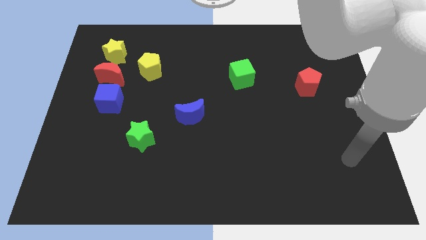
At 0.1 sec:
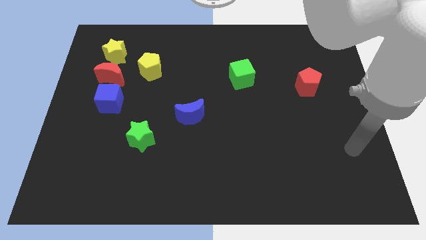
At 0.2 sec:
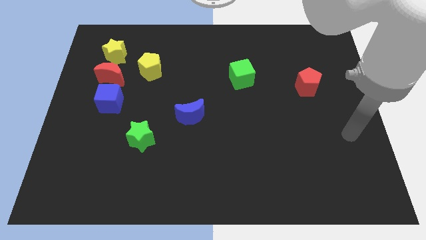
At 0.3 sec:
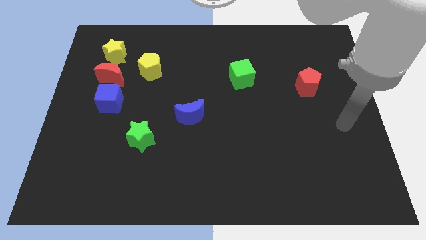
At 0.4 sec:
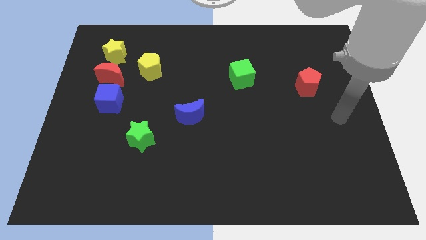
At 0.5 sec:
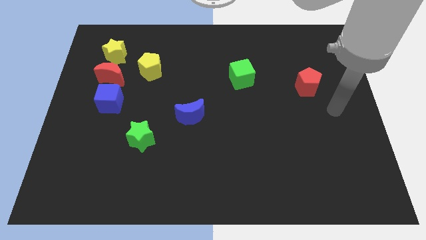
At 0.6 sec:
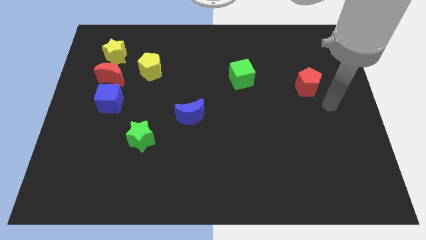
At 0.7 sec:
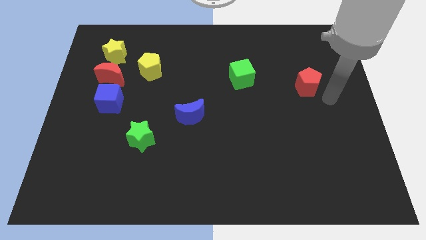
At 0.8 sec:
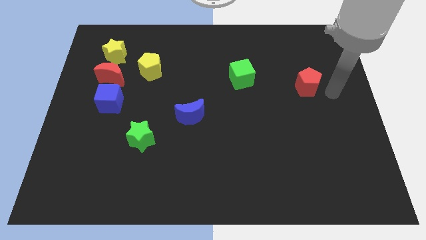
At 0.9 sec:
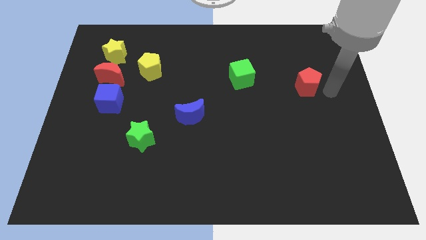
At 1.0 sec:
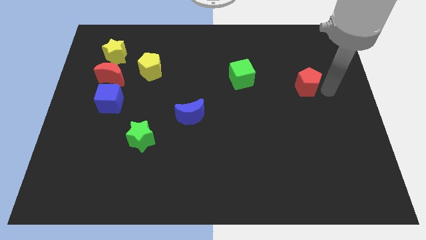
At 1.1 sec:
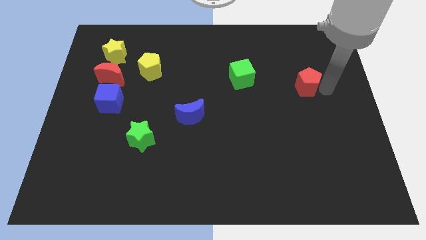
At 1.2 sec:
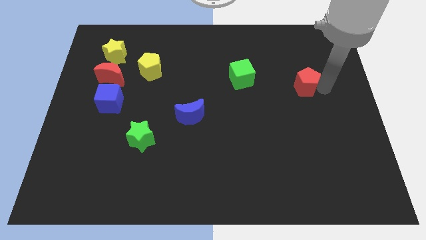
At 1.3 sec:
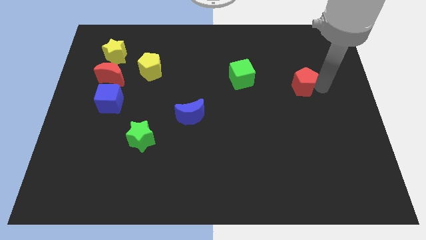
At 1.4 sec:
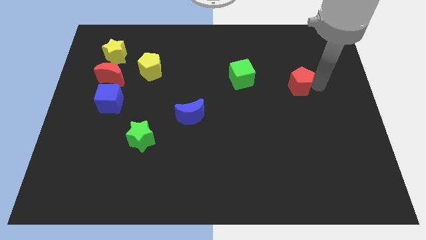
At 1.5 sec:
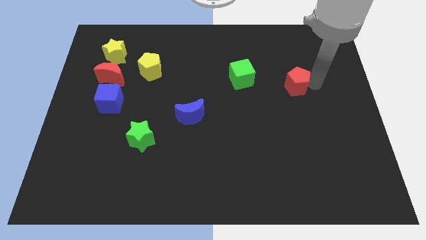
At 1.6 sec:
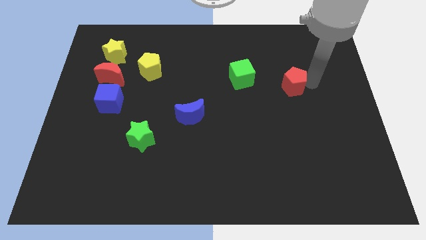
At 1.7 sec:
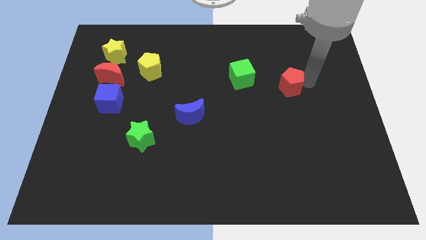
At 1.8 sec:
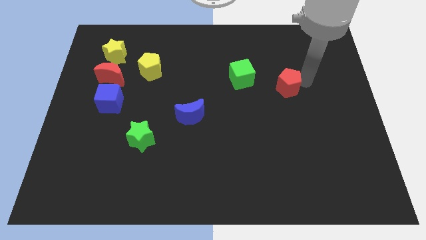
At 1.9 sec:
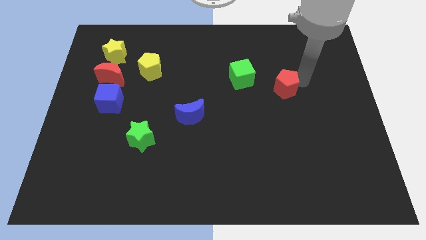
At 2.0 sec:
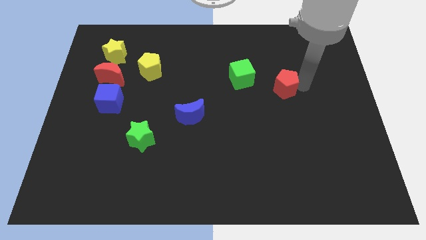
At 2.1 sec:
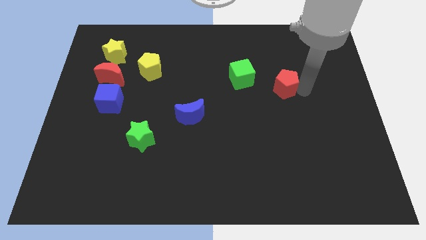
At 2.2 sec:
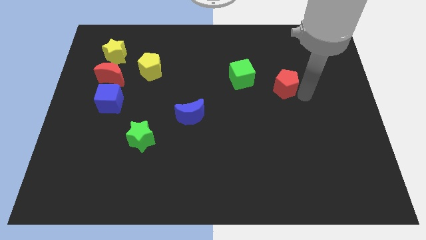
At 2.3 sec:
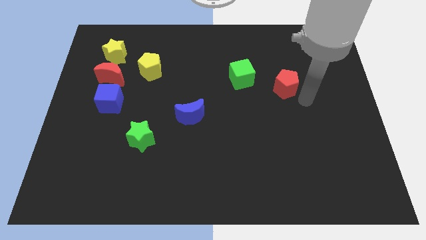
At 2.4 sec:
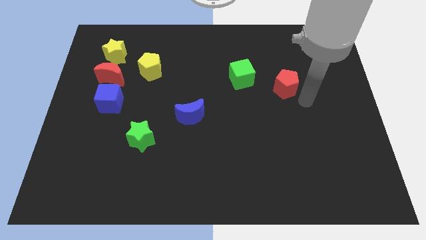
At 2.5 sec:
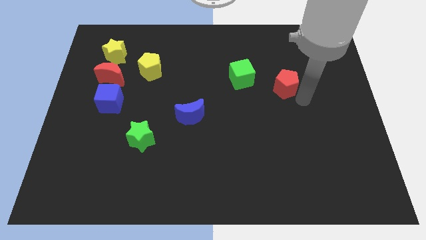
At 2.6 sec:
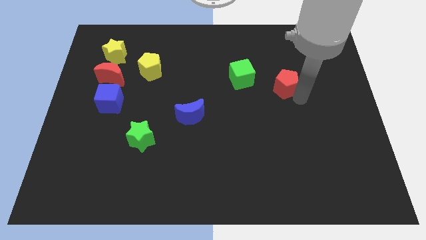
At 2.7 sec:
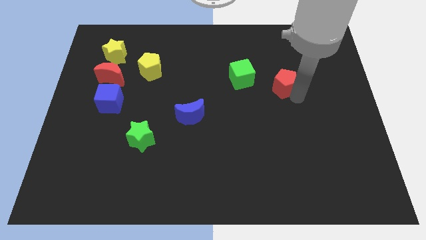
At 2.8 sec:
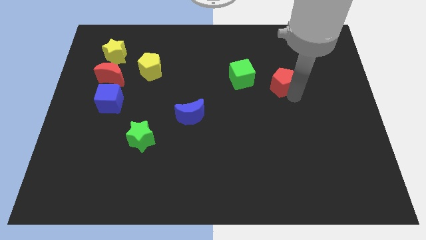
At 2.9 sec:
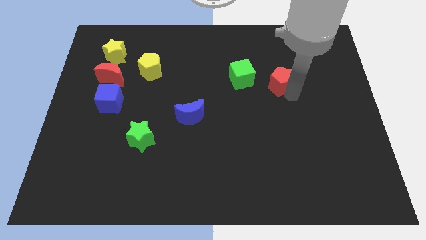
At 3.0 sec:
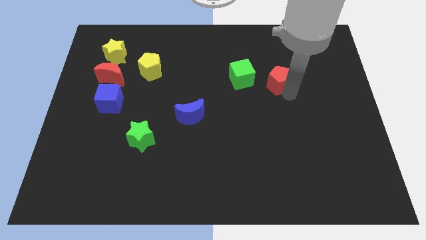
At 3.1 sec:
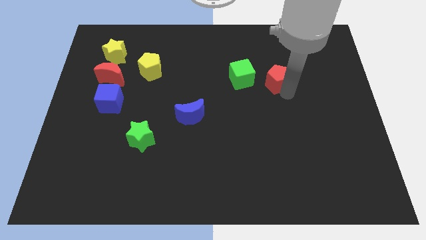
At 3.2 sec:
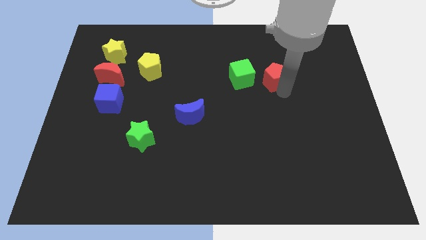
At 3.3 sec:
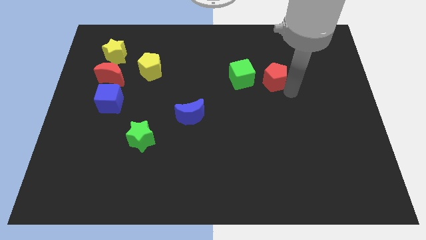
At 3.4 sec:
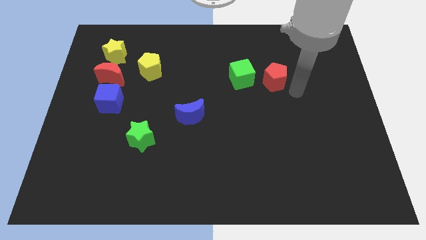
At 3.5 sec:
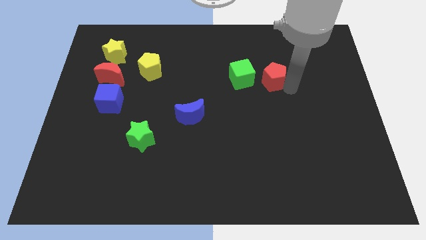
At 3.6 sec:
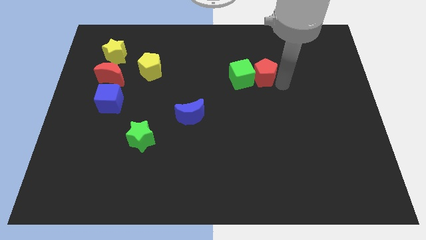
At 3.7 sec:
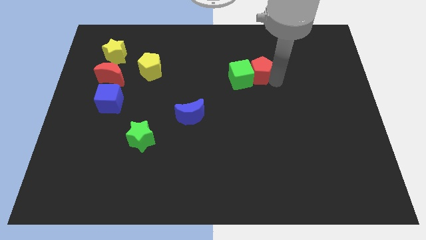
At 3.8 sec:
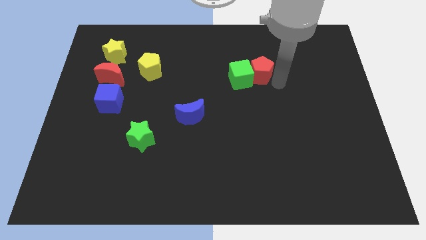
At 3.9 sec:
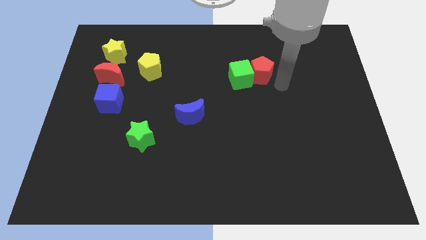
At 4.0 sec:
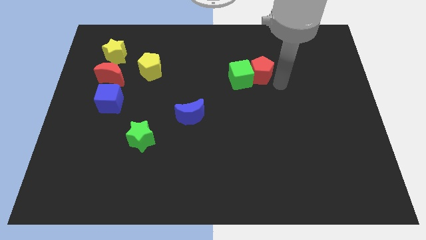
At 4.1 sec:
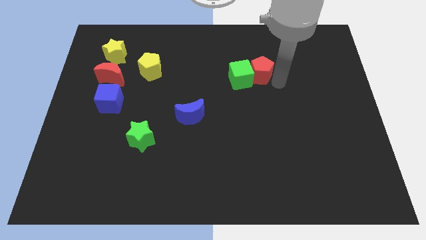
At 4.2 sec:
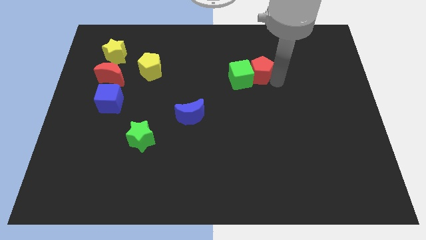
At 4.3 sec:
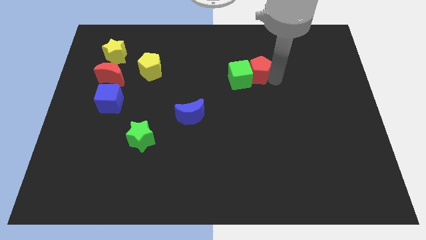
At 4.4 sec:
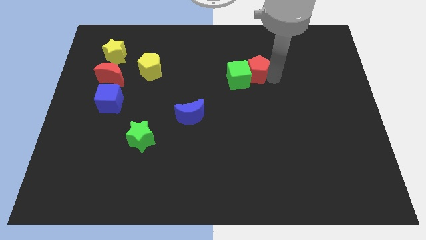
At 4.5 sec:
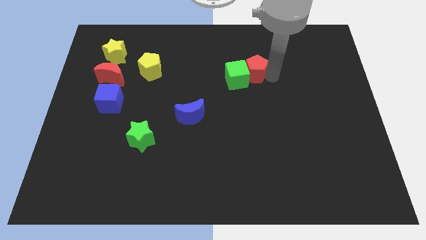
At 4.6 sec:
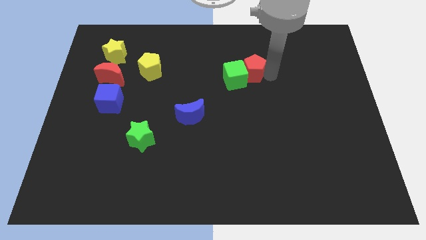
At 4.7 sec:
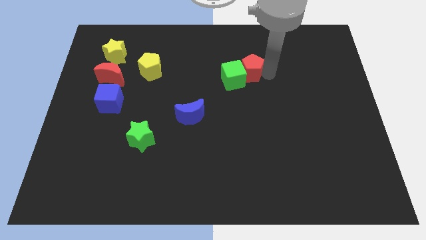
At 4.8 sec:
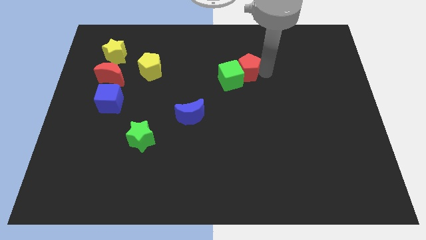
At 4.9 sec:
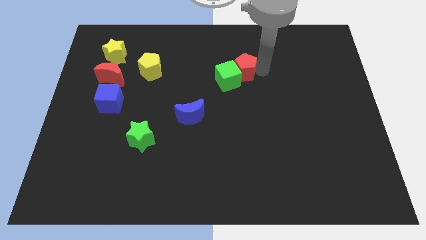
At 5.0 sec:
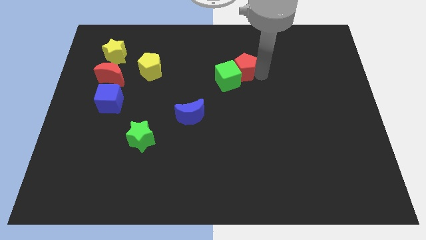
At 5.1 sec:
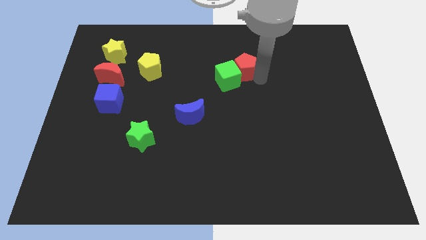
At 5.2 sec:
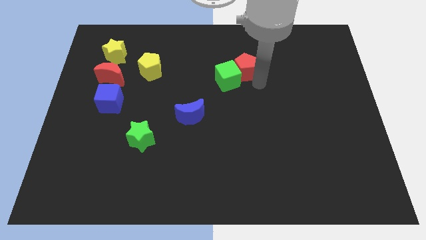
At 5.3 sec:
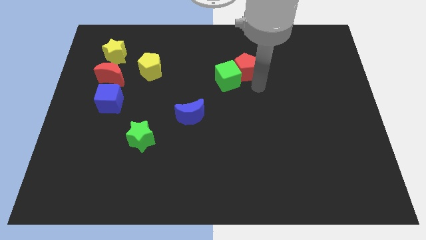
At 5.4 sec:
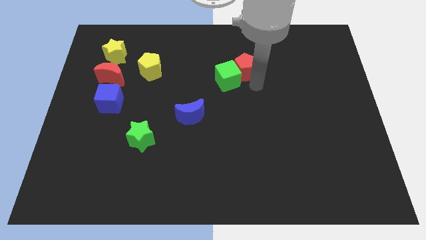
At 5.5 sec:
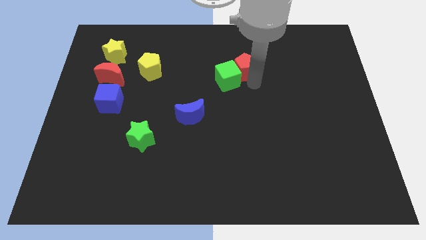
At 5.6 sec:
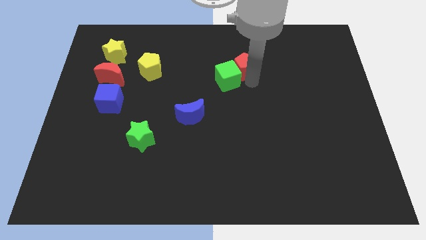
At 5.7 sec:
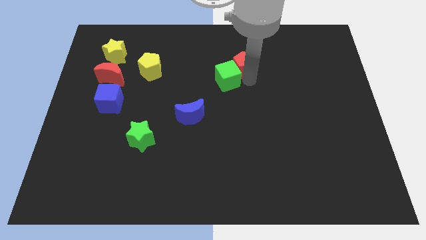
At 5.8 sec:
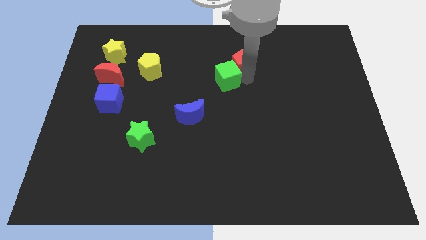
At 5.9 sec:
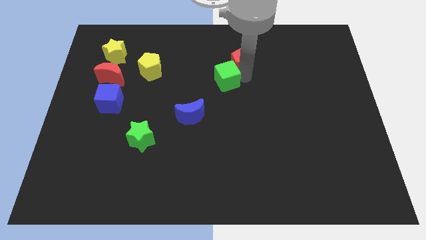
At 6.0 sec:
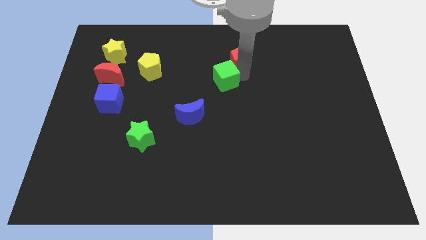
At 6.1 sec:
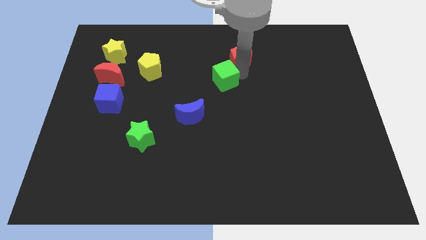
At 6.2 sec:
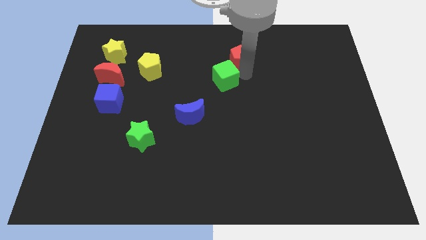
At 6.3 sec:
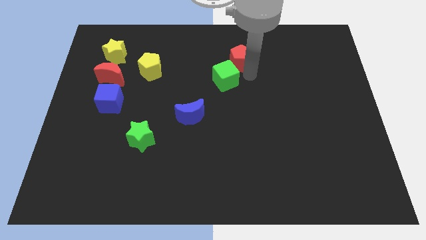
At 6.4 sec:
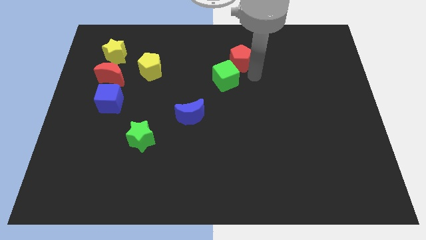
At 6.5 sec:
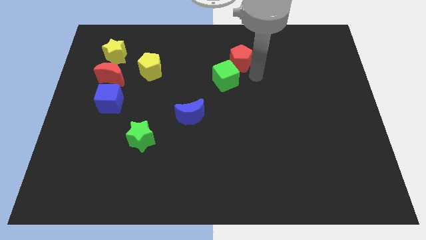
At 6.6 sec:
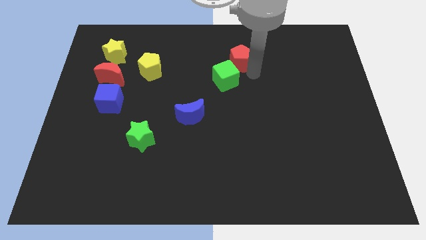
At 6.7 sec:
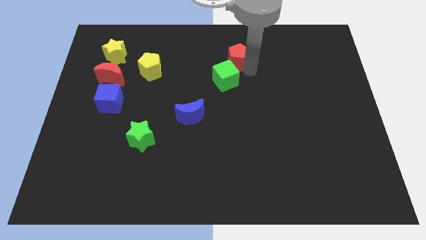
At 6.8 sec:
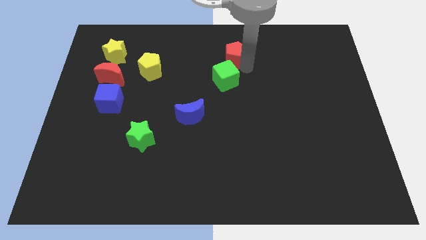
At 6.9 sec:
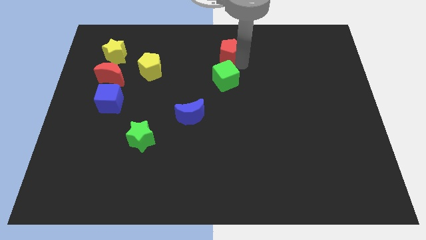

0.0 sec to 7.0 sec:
push the red pentagon to the top
